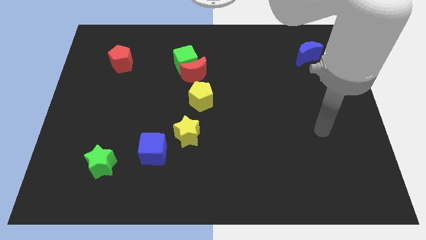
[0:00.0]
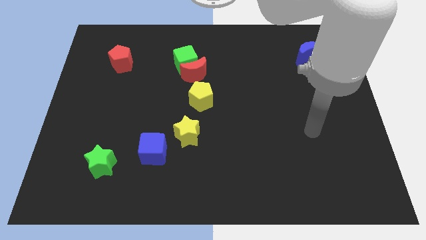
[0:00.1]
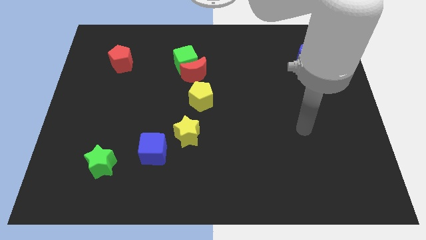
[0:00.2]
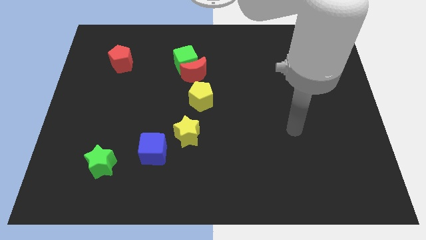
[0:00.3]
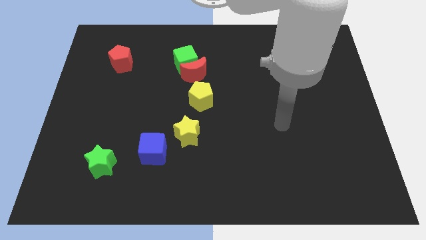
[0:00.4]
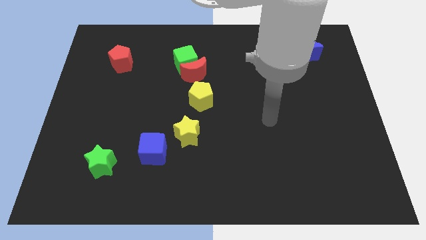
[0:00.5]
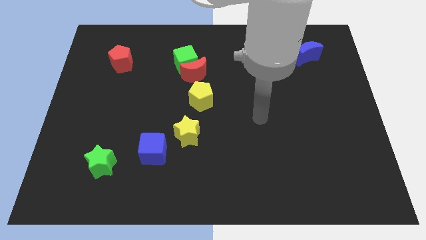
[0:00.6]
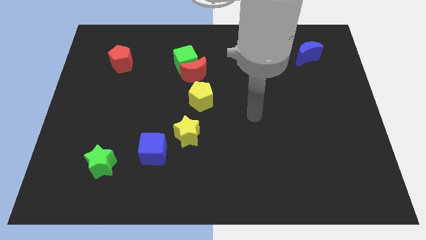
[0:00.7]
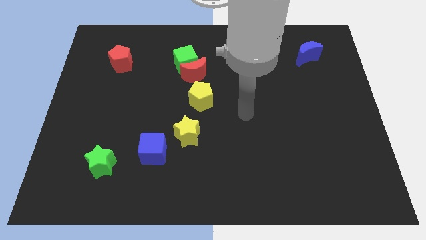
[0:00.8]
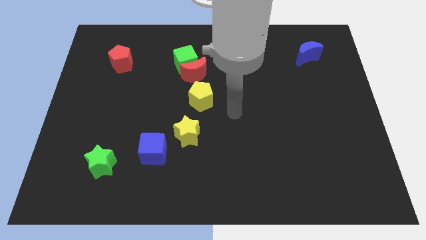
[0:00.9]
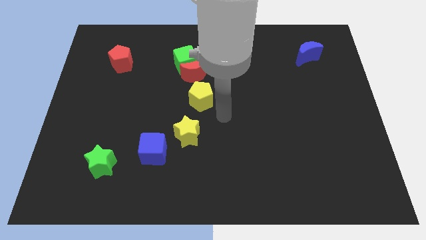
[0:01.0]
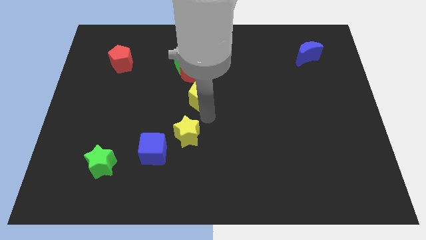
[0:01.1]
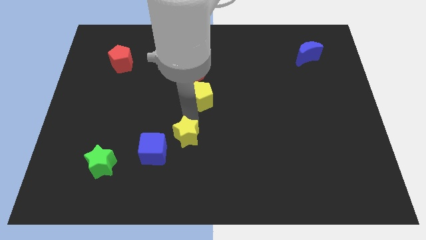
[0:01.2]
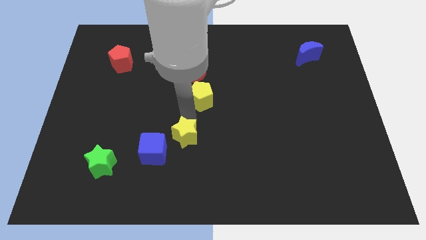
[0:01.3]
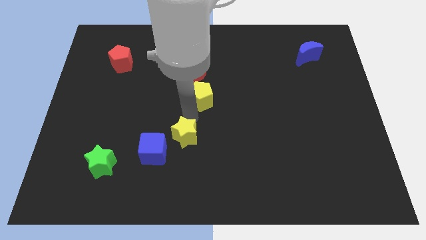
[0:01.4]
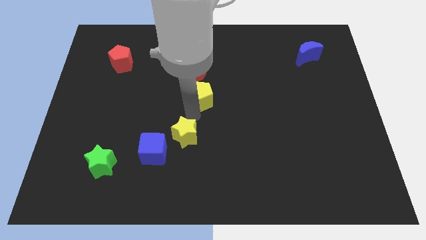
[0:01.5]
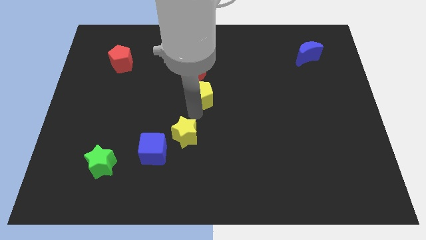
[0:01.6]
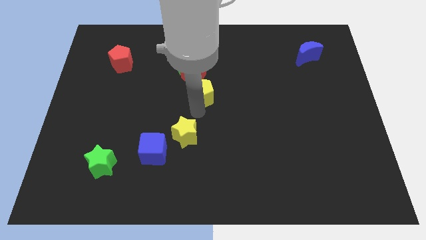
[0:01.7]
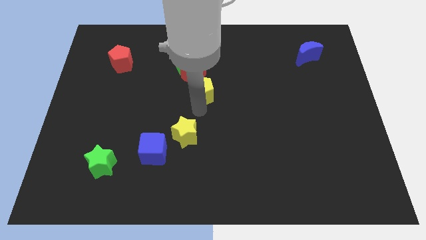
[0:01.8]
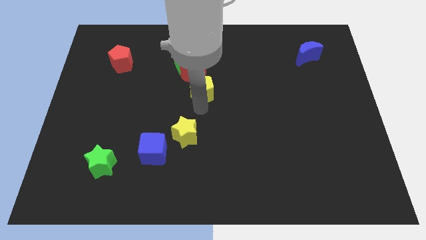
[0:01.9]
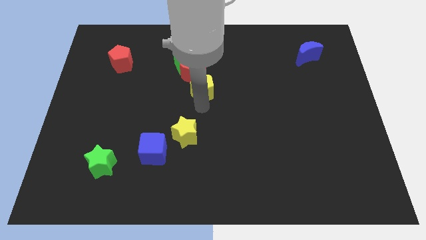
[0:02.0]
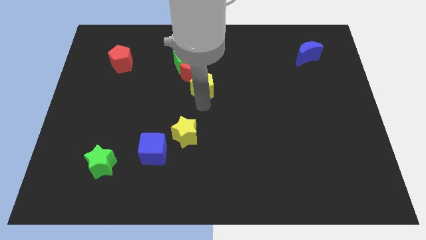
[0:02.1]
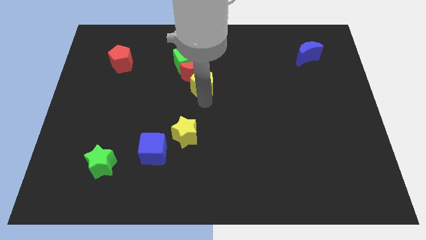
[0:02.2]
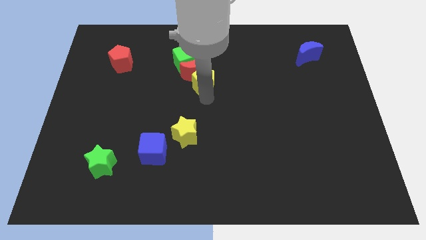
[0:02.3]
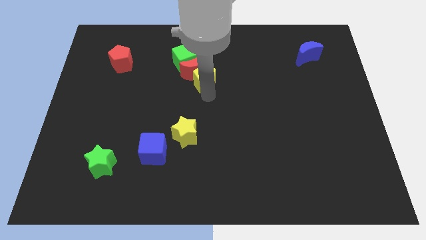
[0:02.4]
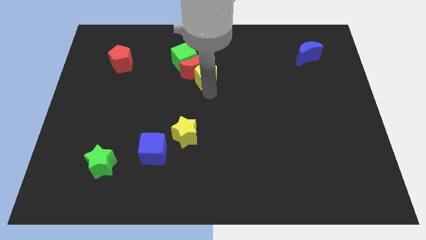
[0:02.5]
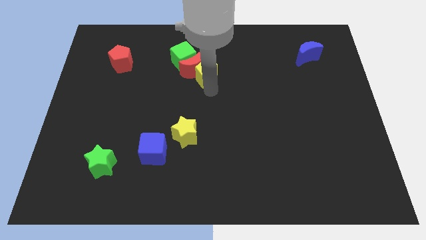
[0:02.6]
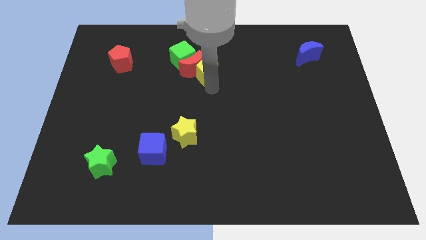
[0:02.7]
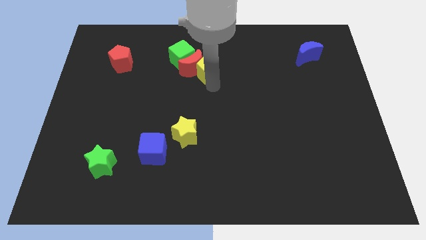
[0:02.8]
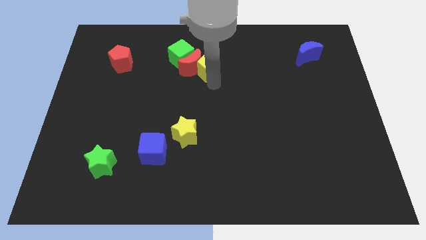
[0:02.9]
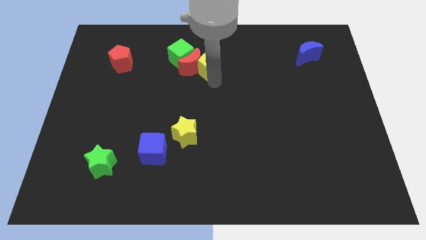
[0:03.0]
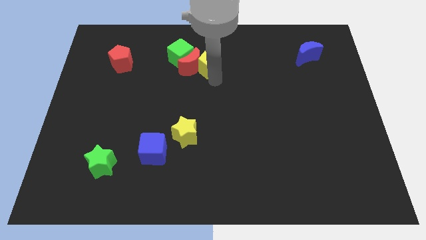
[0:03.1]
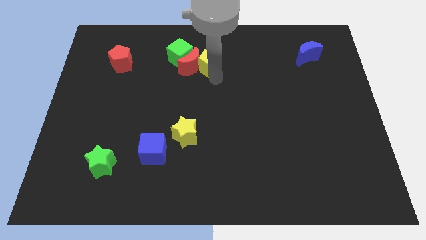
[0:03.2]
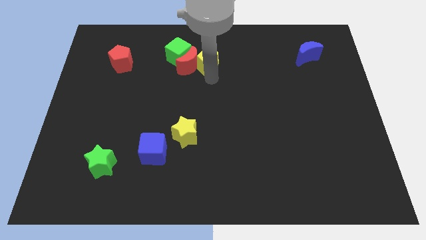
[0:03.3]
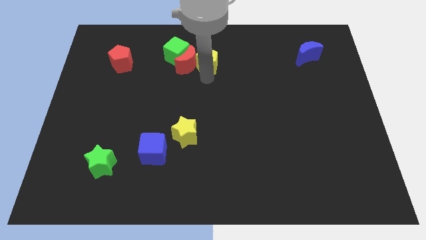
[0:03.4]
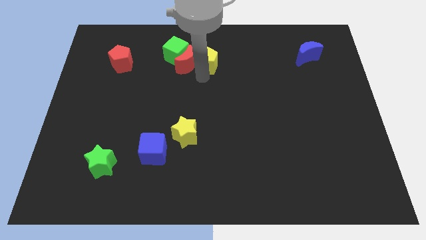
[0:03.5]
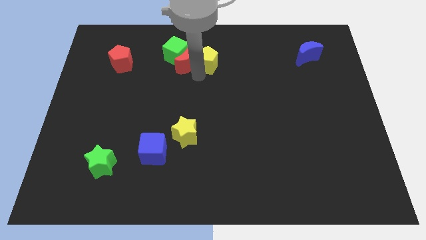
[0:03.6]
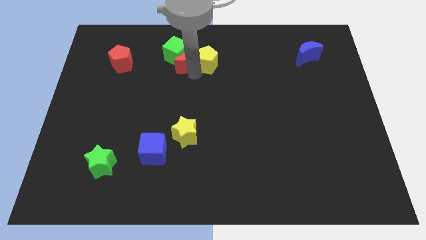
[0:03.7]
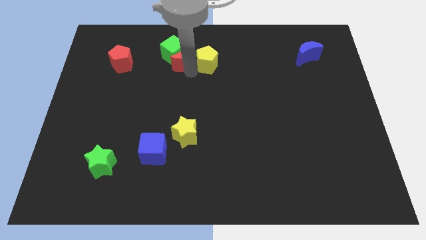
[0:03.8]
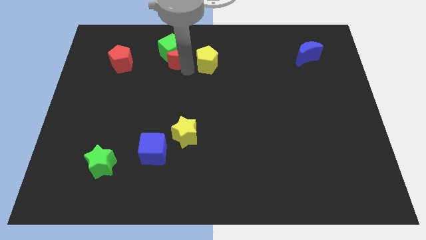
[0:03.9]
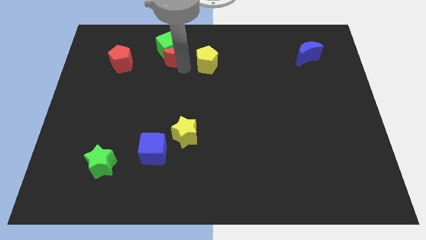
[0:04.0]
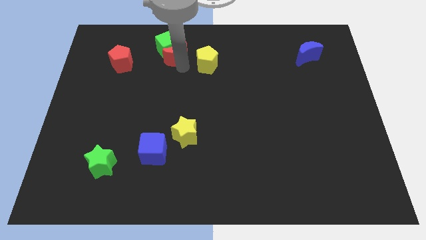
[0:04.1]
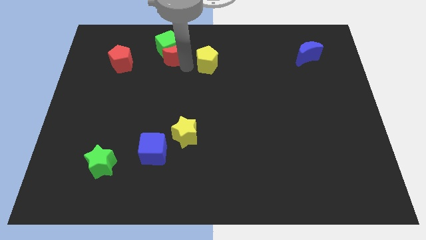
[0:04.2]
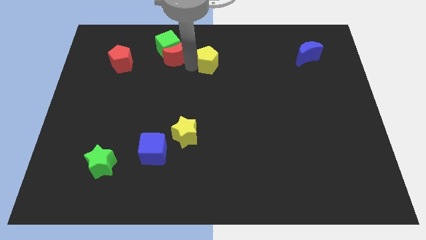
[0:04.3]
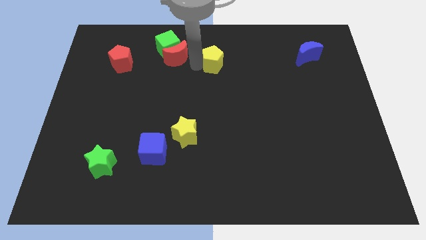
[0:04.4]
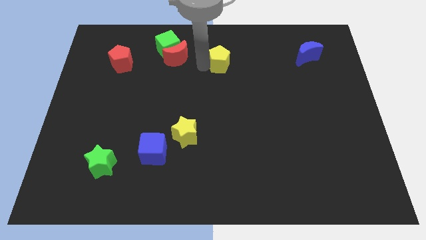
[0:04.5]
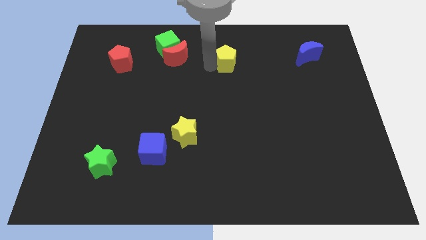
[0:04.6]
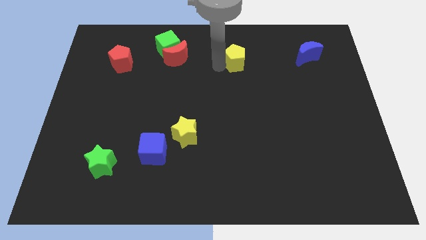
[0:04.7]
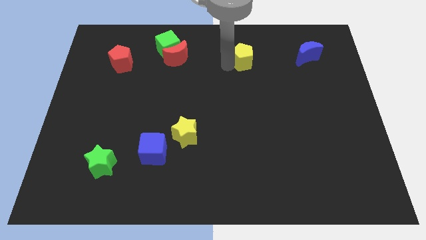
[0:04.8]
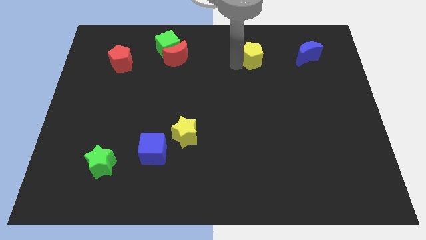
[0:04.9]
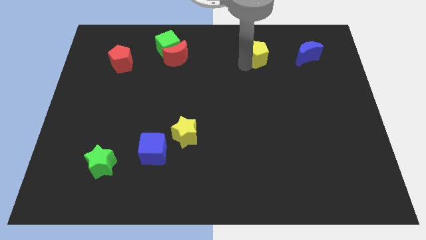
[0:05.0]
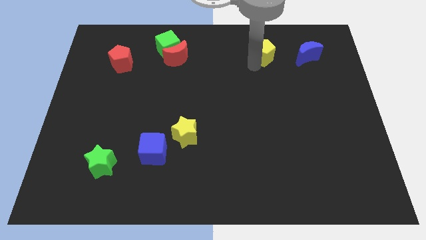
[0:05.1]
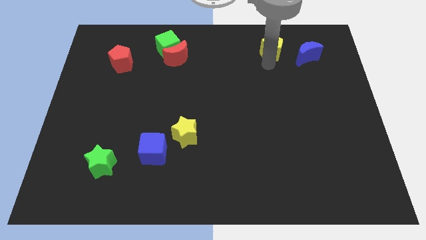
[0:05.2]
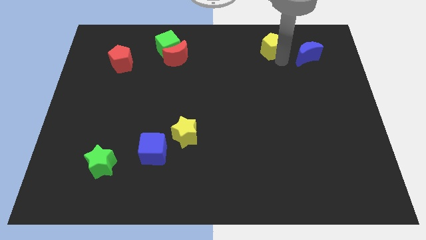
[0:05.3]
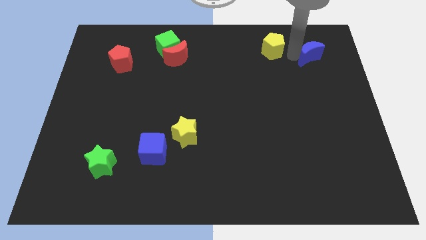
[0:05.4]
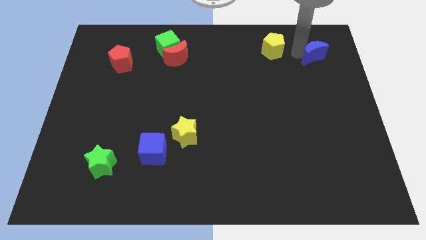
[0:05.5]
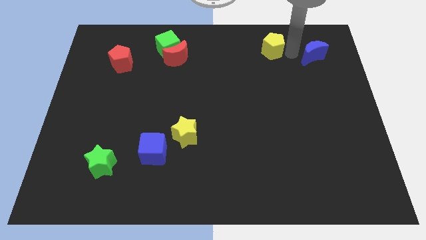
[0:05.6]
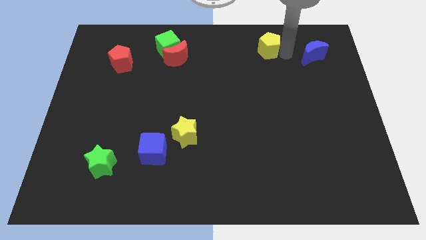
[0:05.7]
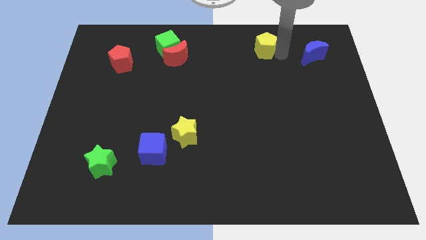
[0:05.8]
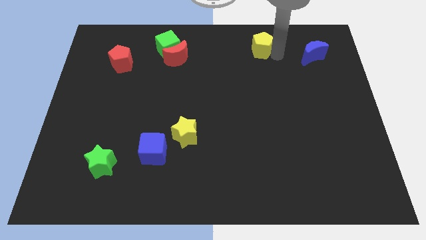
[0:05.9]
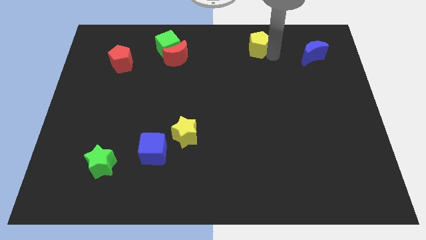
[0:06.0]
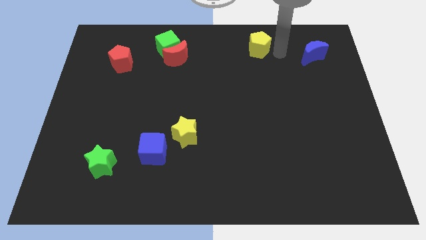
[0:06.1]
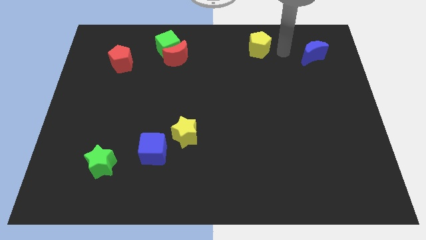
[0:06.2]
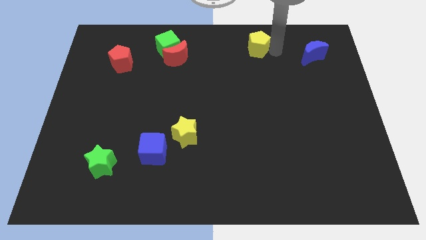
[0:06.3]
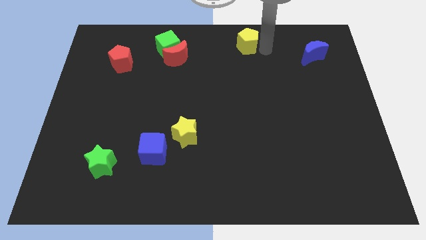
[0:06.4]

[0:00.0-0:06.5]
put the yellow pentagon to the top

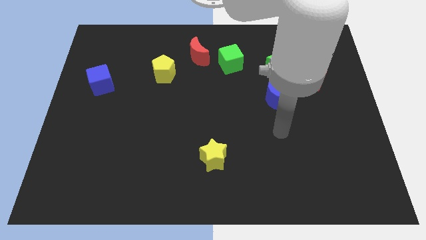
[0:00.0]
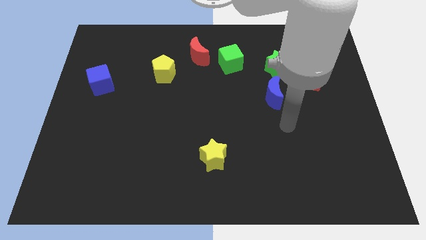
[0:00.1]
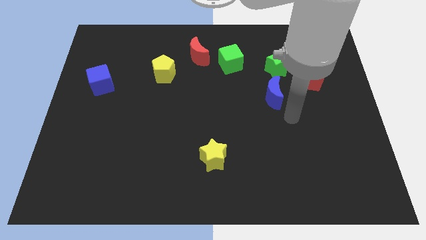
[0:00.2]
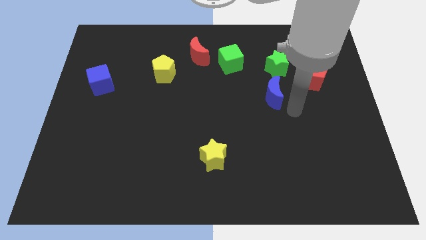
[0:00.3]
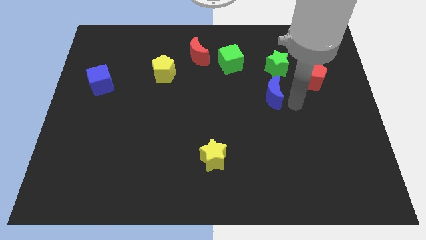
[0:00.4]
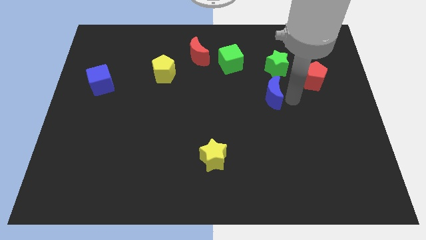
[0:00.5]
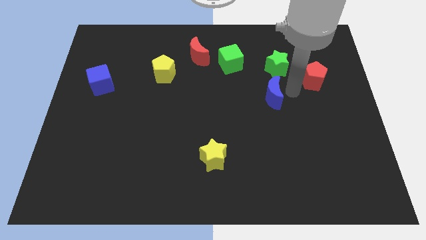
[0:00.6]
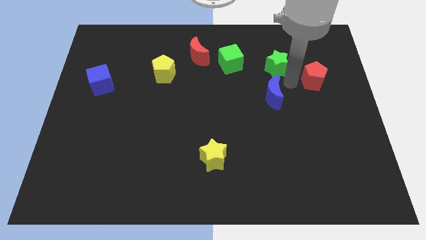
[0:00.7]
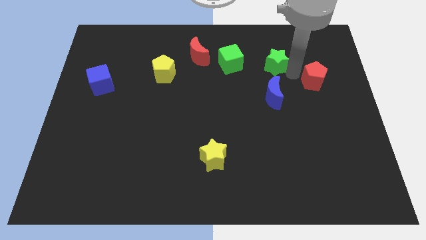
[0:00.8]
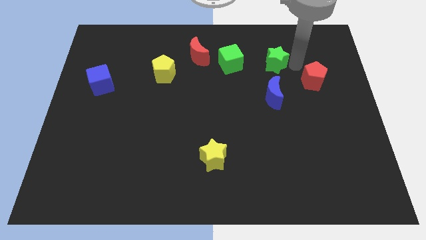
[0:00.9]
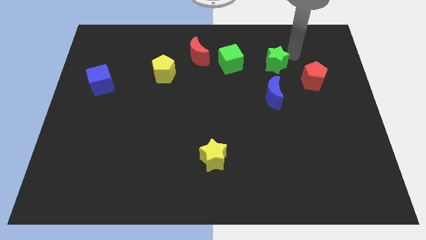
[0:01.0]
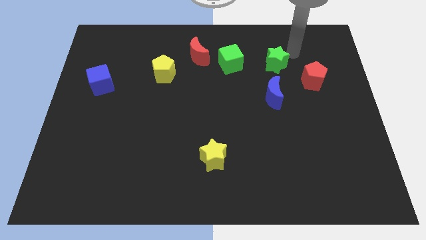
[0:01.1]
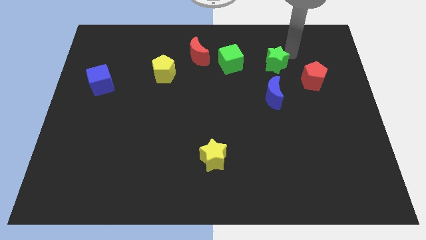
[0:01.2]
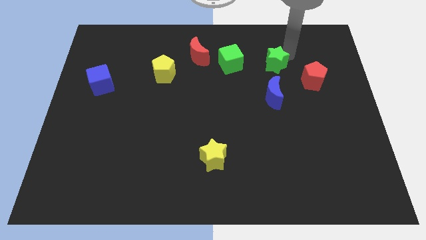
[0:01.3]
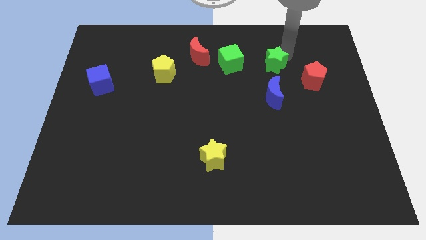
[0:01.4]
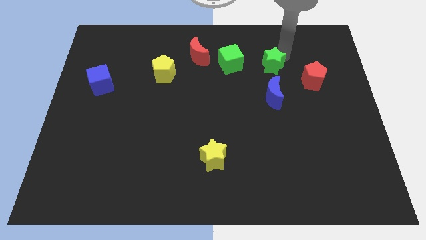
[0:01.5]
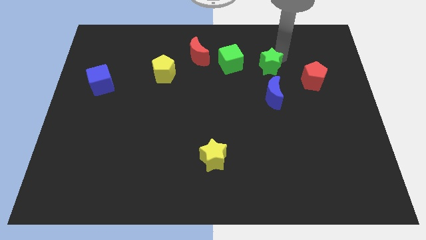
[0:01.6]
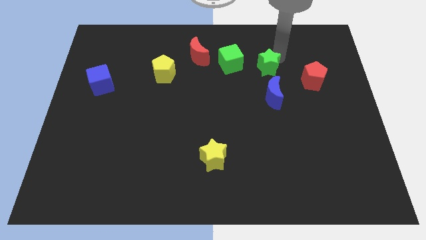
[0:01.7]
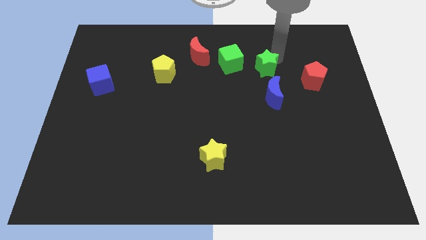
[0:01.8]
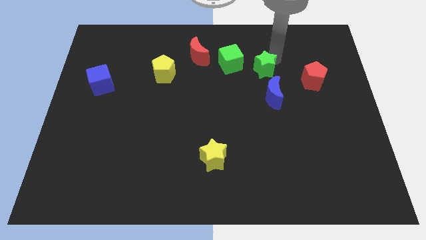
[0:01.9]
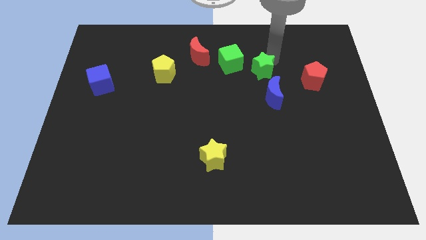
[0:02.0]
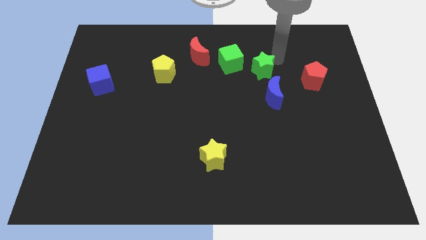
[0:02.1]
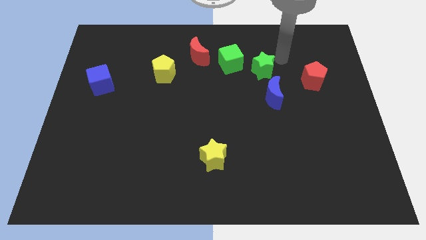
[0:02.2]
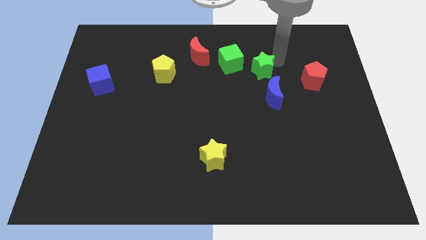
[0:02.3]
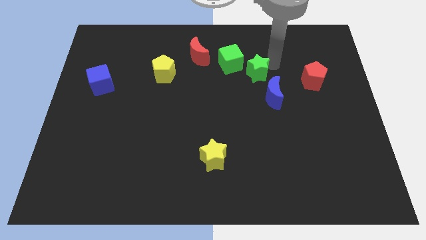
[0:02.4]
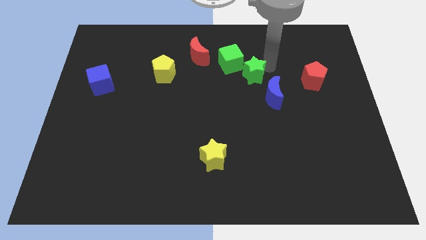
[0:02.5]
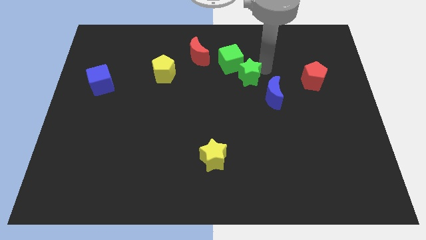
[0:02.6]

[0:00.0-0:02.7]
put the green star to the center
